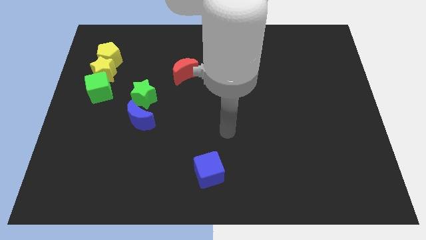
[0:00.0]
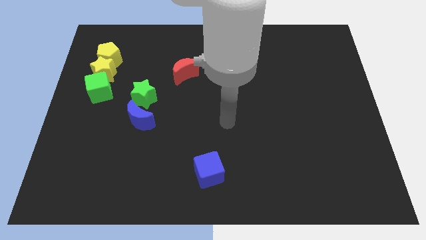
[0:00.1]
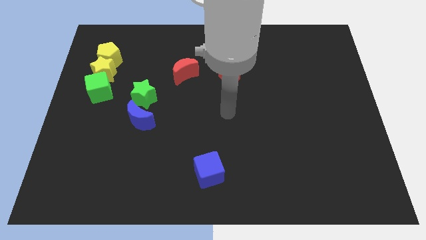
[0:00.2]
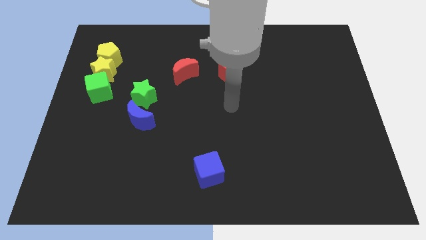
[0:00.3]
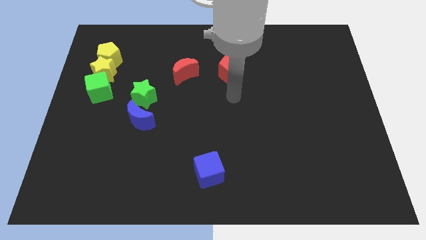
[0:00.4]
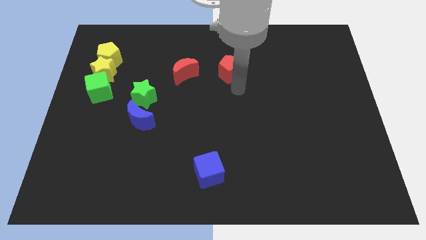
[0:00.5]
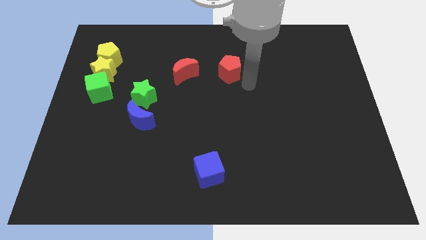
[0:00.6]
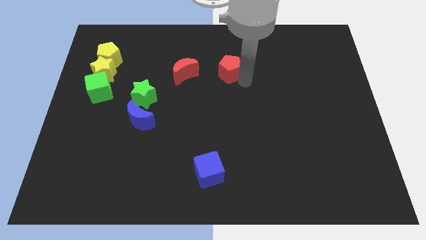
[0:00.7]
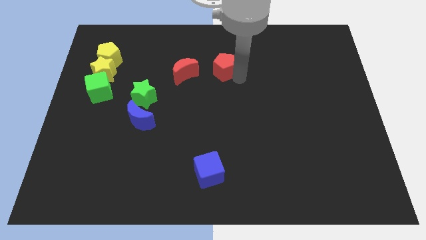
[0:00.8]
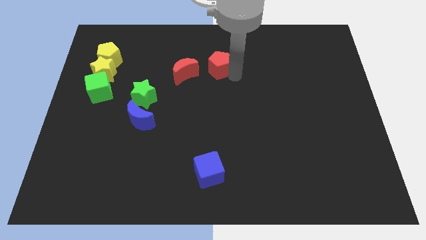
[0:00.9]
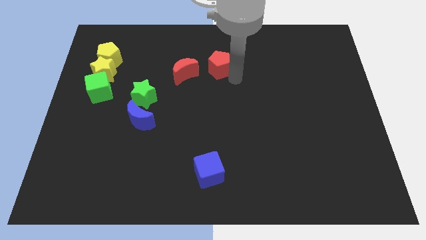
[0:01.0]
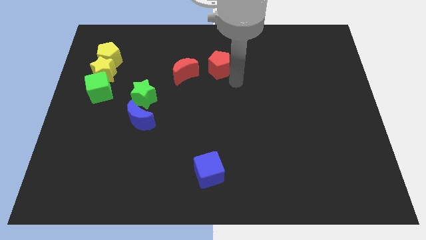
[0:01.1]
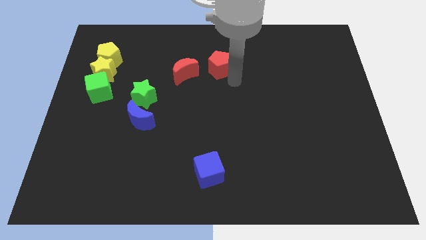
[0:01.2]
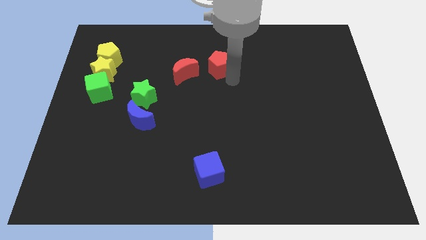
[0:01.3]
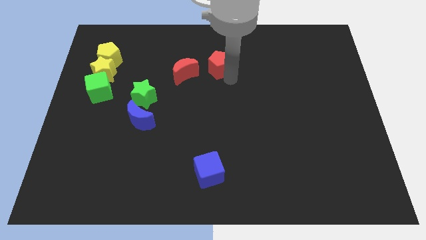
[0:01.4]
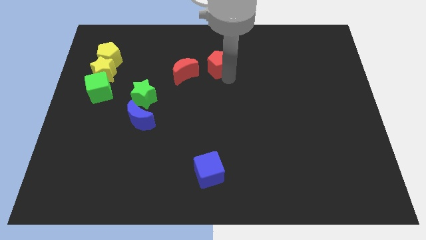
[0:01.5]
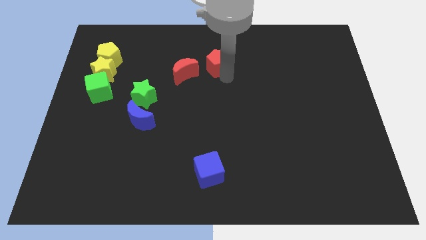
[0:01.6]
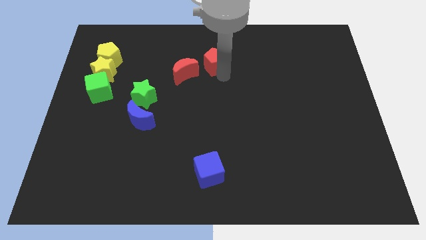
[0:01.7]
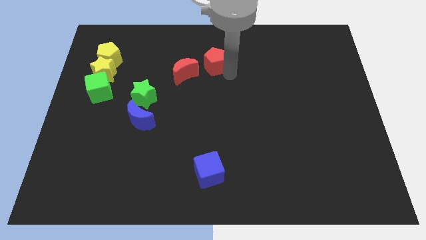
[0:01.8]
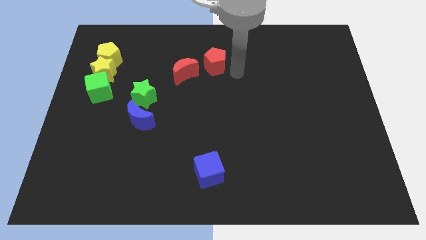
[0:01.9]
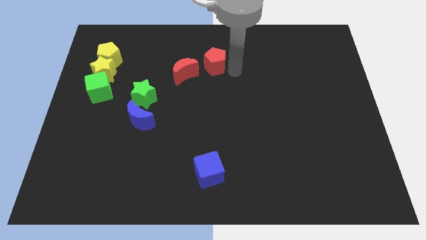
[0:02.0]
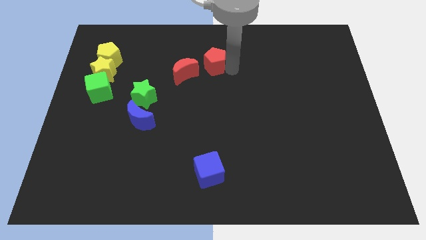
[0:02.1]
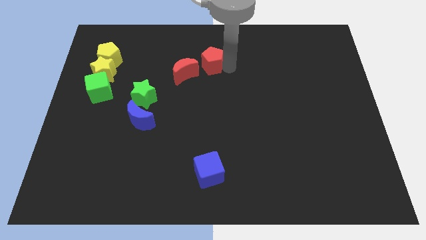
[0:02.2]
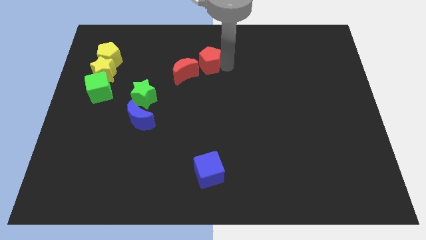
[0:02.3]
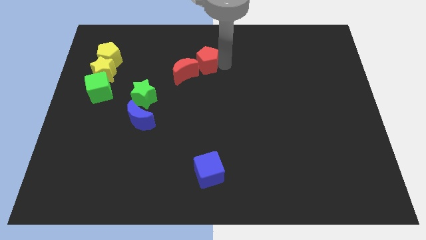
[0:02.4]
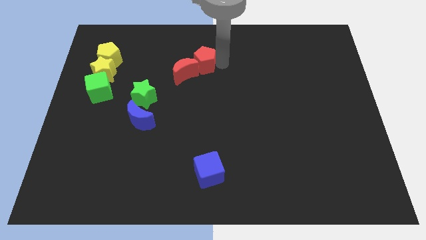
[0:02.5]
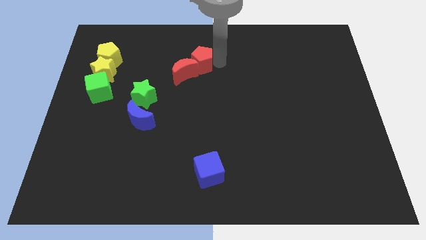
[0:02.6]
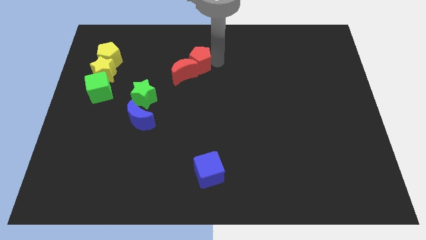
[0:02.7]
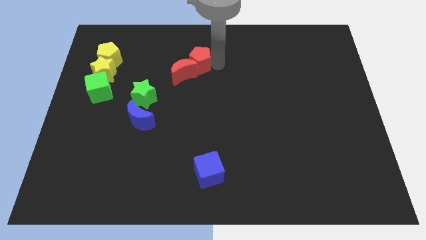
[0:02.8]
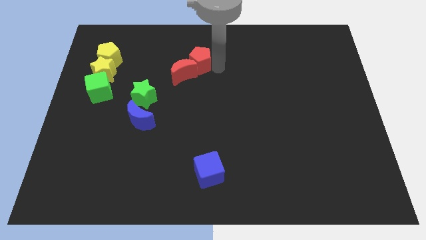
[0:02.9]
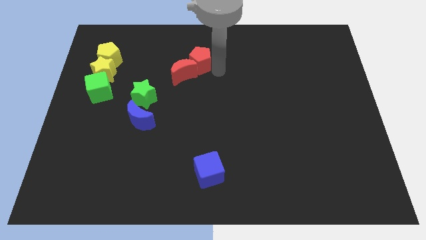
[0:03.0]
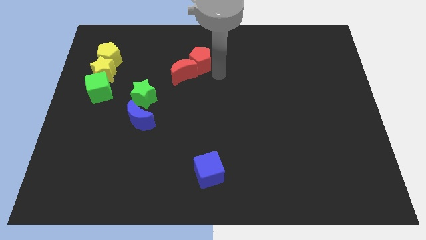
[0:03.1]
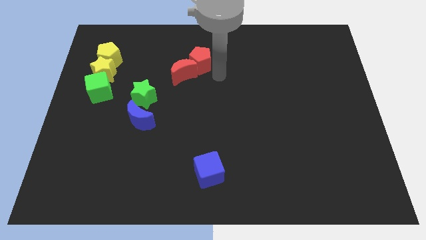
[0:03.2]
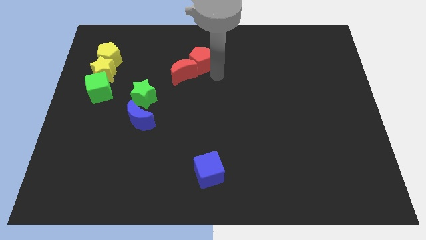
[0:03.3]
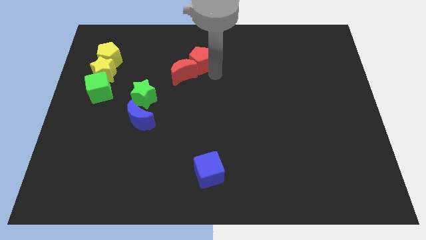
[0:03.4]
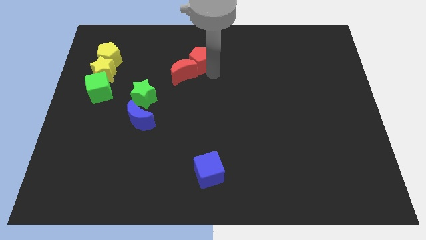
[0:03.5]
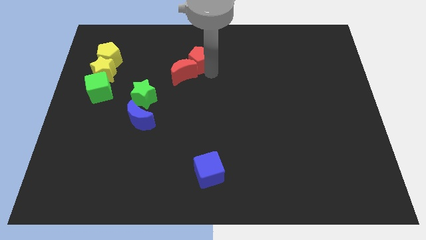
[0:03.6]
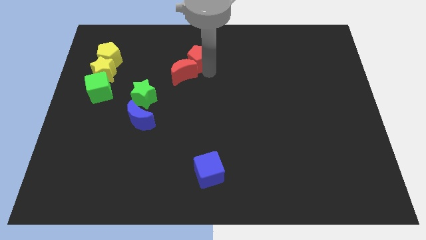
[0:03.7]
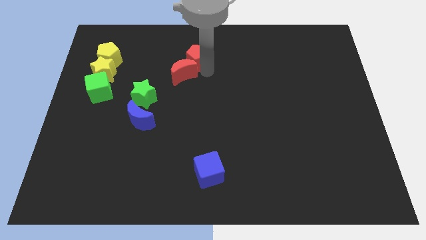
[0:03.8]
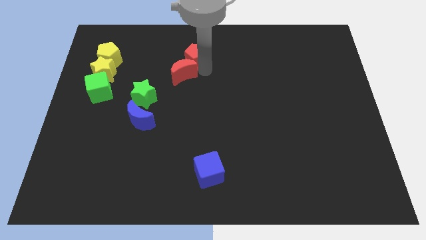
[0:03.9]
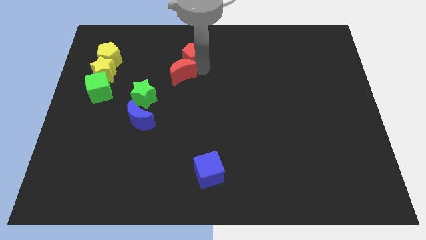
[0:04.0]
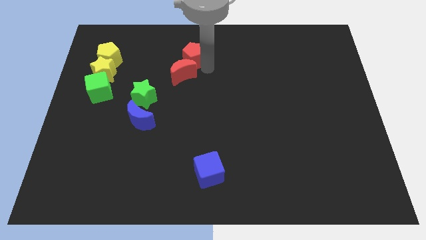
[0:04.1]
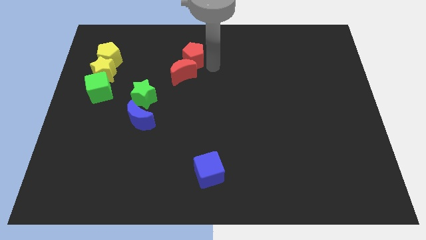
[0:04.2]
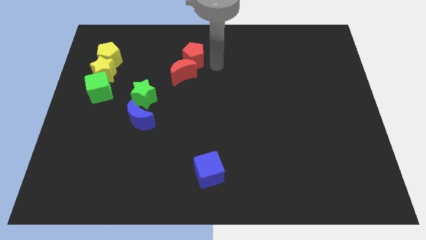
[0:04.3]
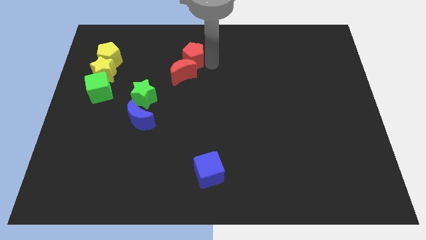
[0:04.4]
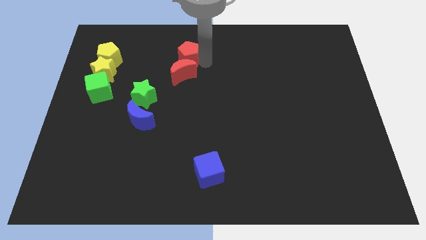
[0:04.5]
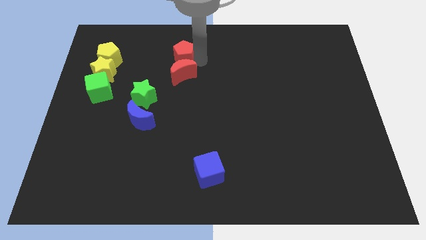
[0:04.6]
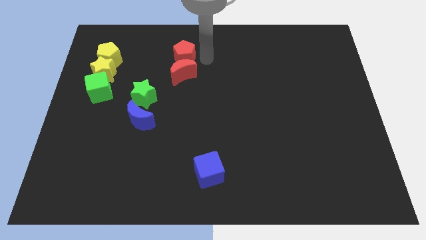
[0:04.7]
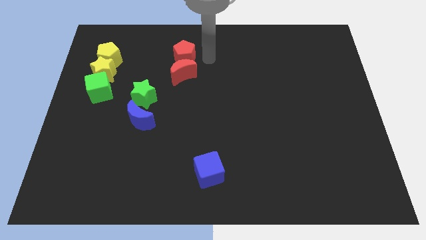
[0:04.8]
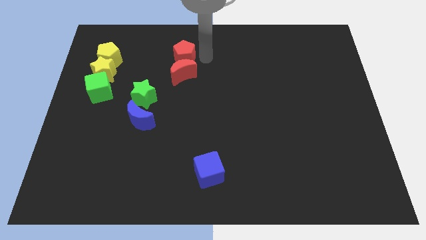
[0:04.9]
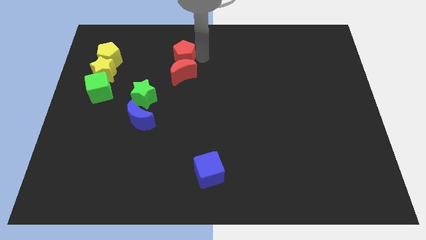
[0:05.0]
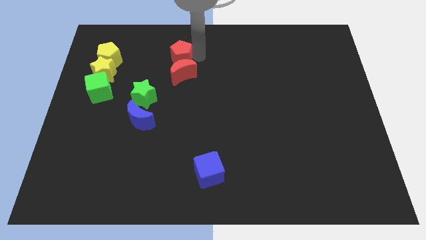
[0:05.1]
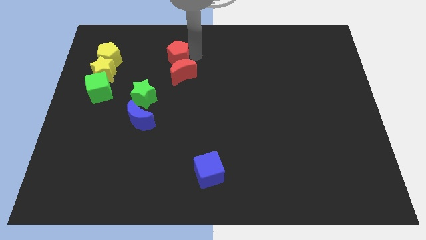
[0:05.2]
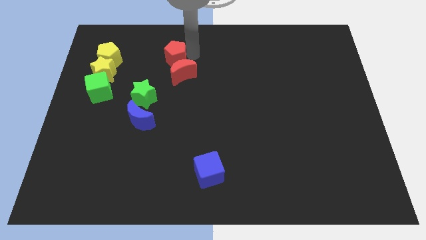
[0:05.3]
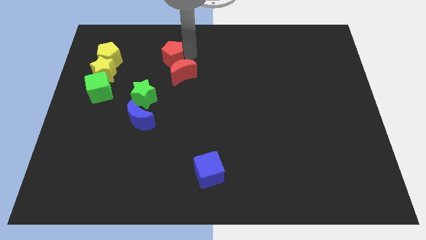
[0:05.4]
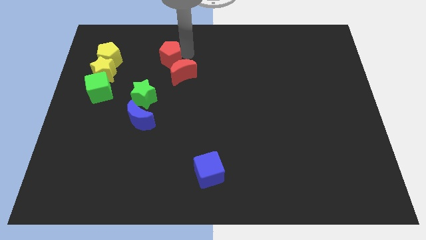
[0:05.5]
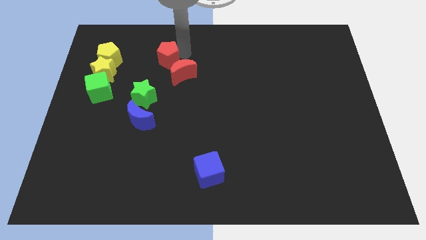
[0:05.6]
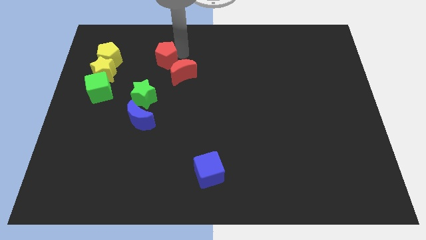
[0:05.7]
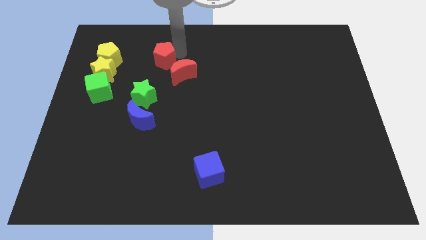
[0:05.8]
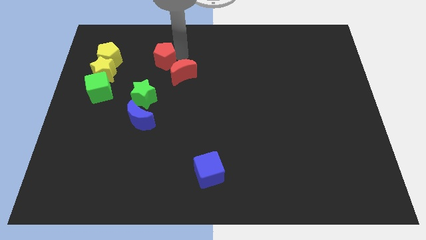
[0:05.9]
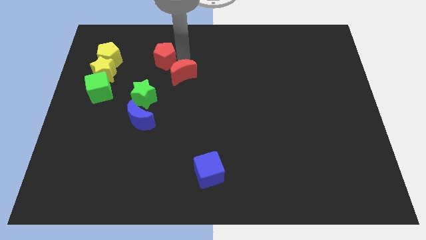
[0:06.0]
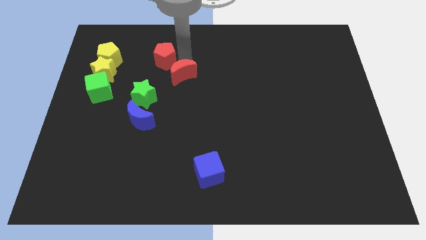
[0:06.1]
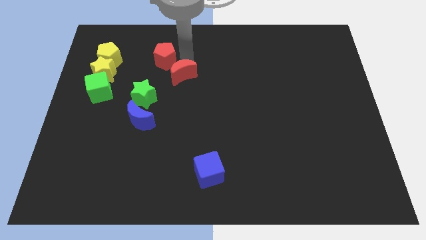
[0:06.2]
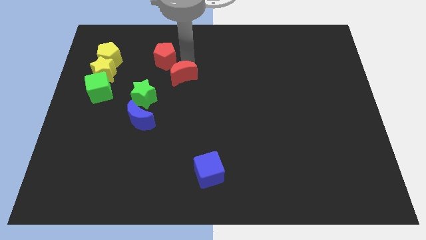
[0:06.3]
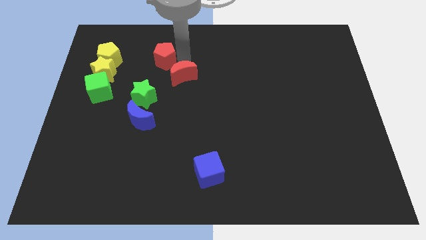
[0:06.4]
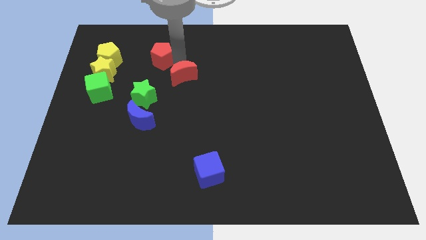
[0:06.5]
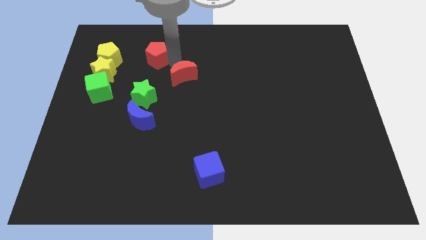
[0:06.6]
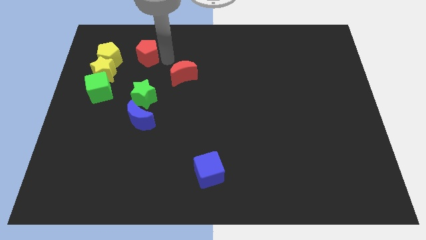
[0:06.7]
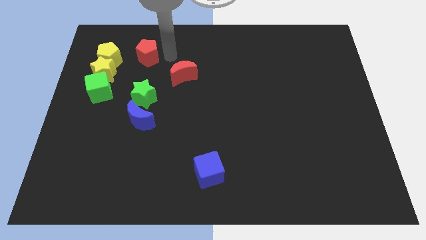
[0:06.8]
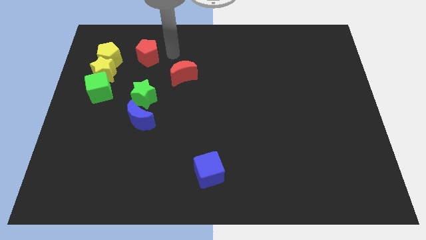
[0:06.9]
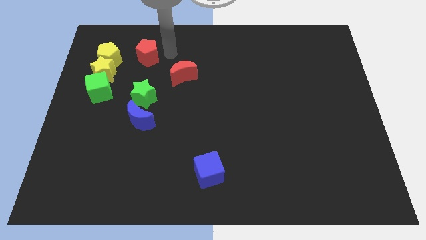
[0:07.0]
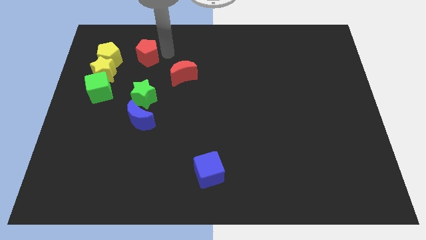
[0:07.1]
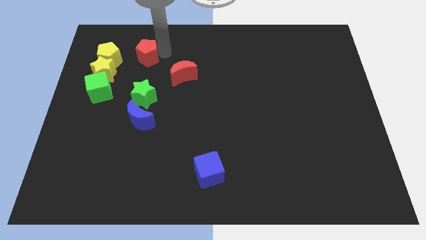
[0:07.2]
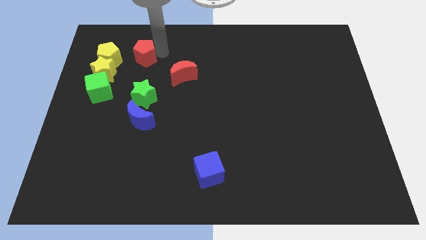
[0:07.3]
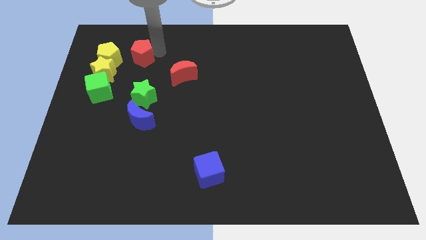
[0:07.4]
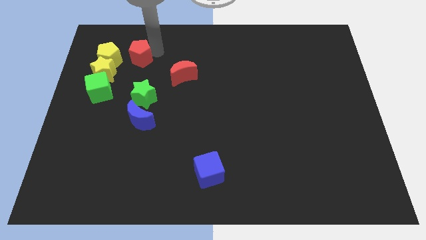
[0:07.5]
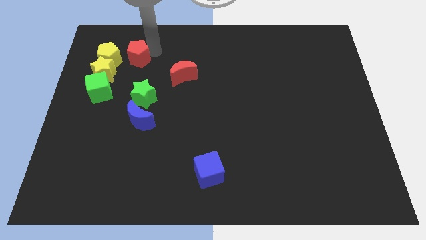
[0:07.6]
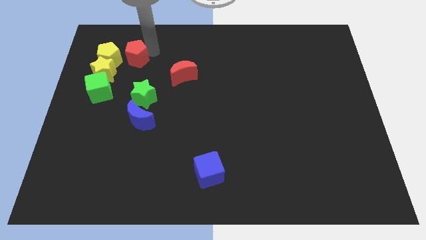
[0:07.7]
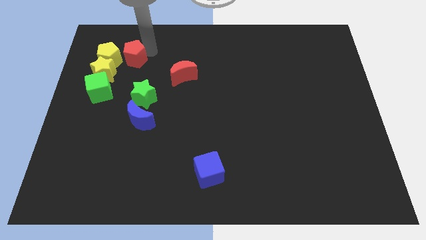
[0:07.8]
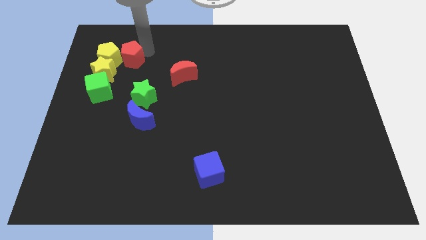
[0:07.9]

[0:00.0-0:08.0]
put the red pentagon close to the yellow pentagon
